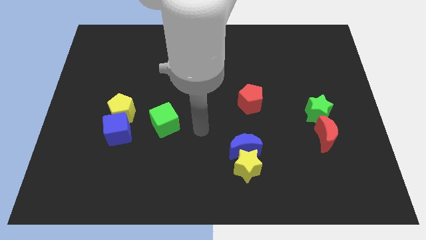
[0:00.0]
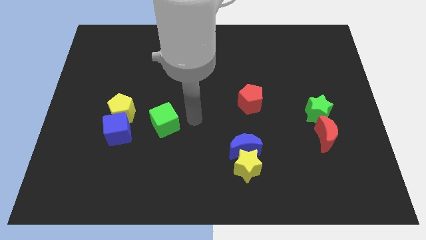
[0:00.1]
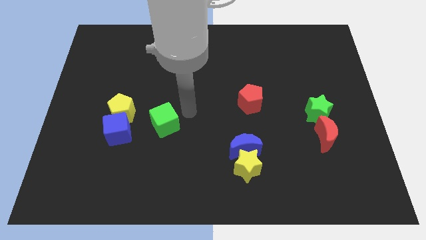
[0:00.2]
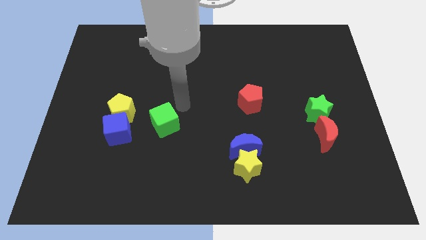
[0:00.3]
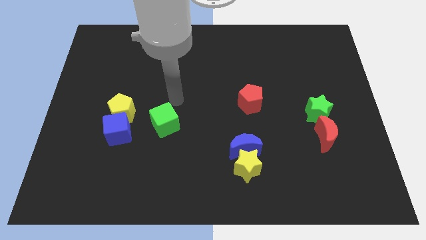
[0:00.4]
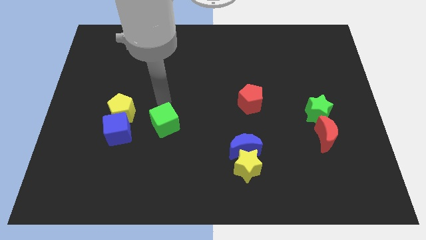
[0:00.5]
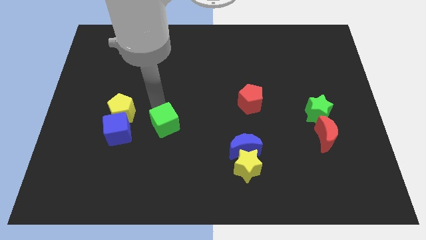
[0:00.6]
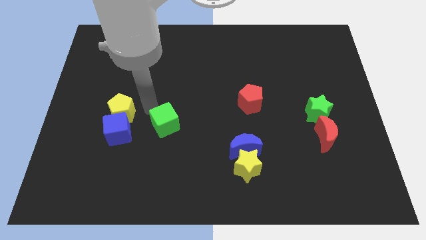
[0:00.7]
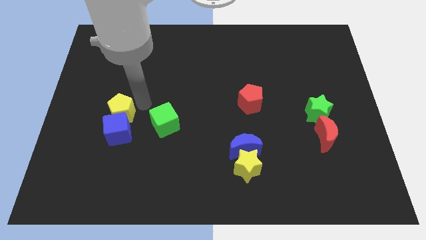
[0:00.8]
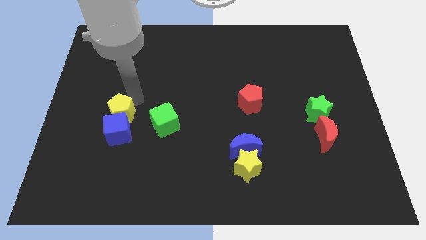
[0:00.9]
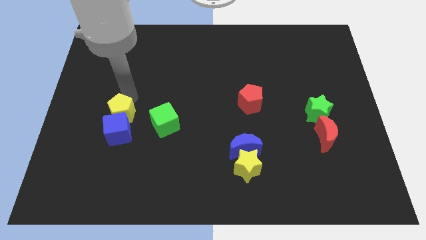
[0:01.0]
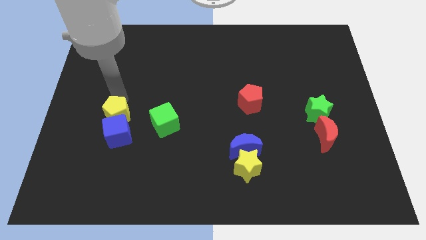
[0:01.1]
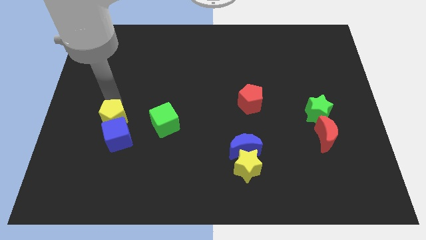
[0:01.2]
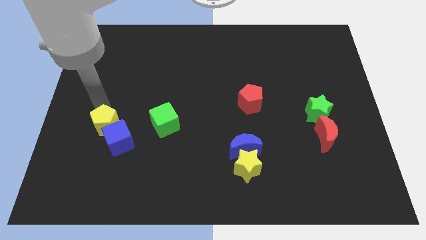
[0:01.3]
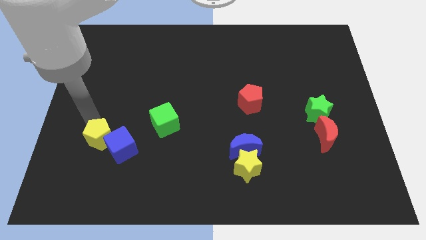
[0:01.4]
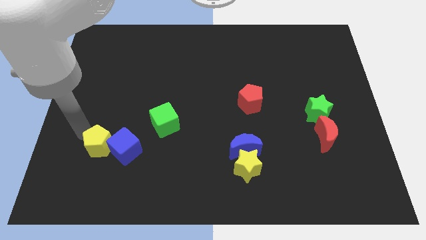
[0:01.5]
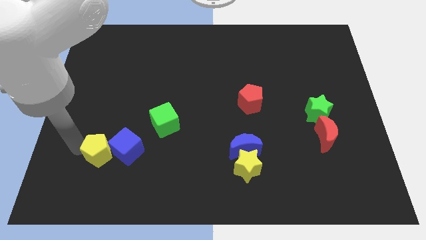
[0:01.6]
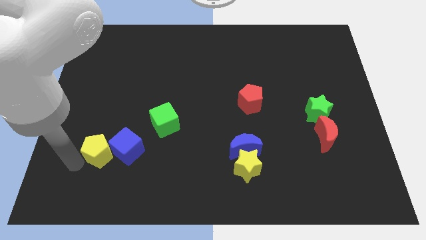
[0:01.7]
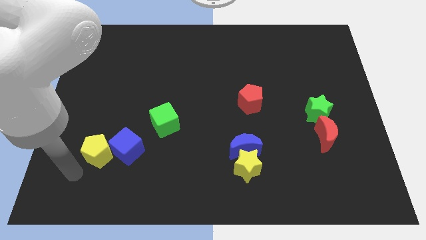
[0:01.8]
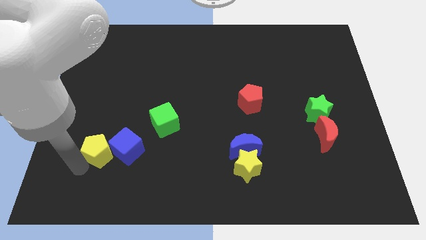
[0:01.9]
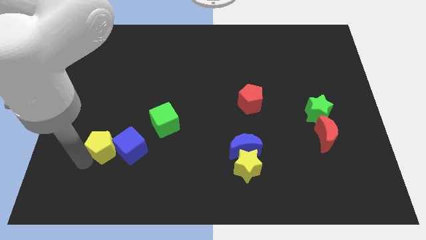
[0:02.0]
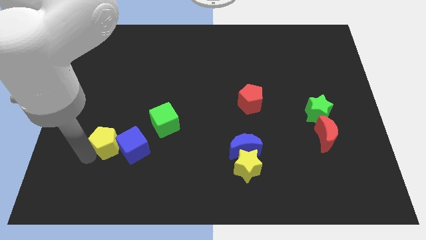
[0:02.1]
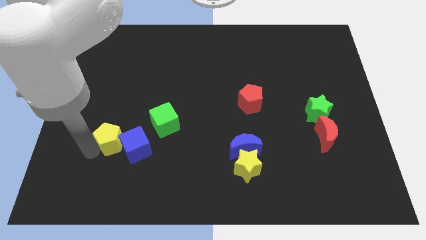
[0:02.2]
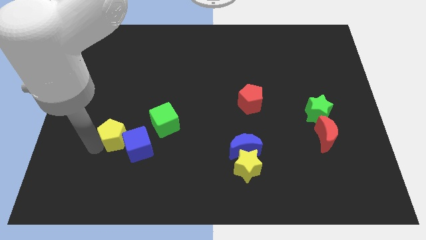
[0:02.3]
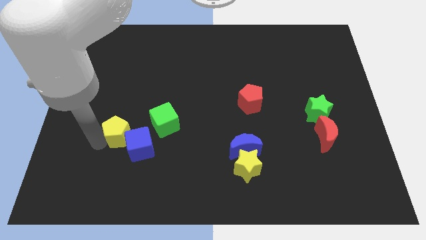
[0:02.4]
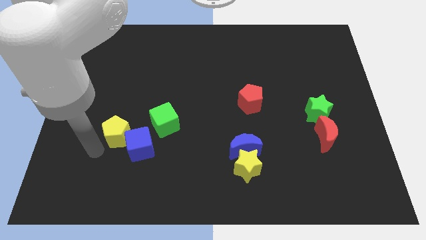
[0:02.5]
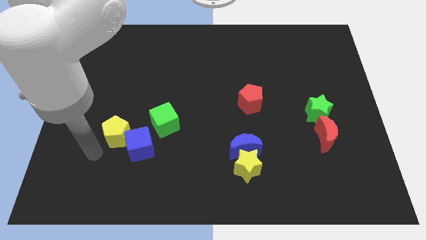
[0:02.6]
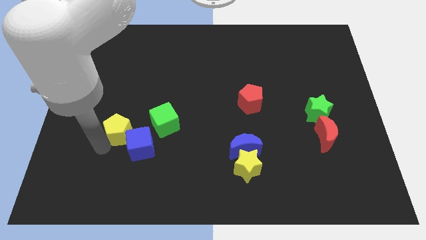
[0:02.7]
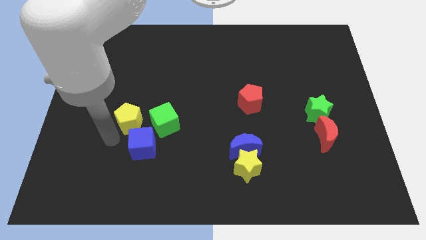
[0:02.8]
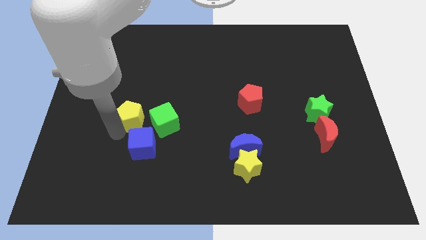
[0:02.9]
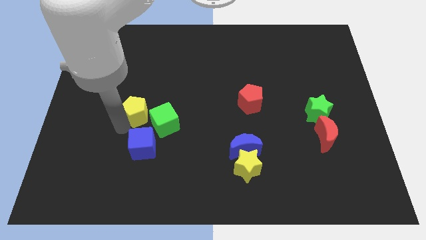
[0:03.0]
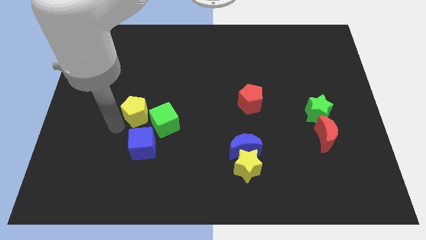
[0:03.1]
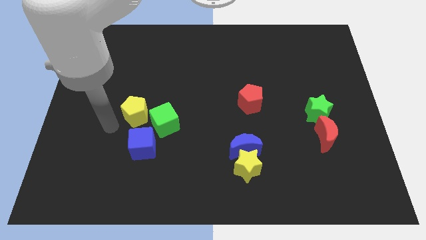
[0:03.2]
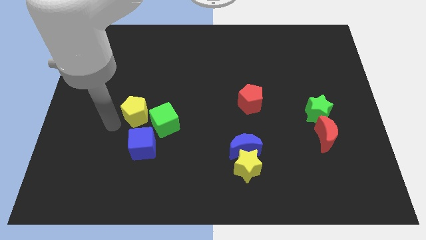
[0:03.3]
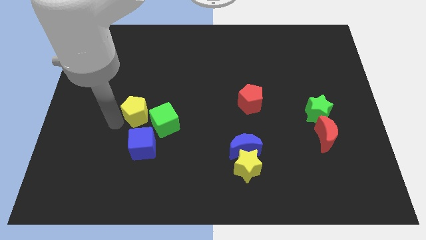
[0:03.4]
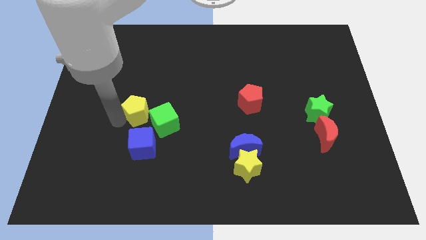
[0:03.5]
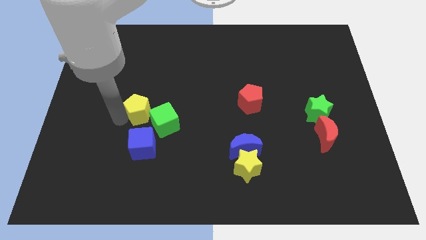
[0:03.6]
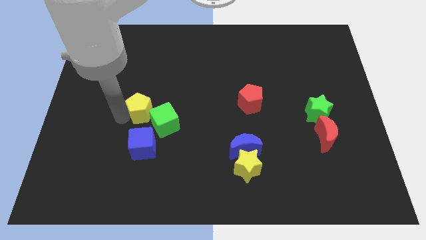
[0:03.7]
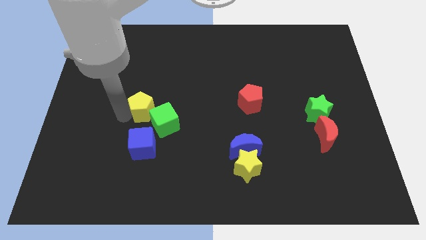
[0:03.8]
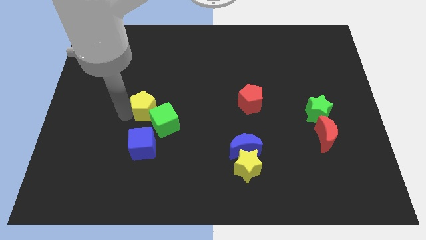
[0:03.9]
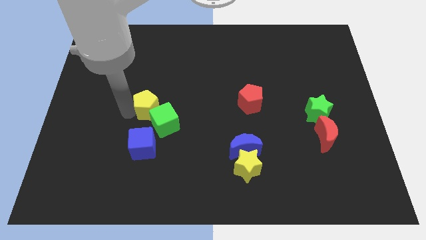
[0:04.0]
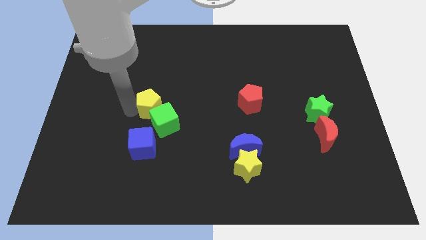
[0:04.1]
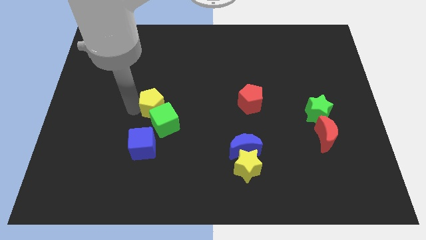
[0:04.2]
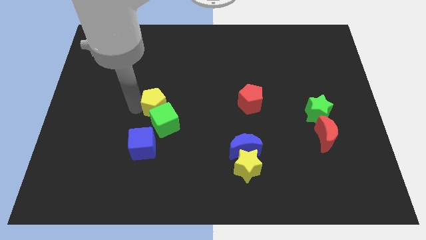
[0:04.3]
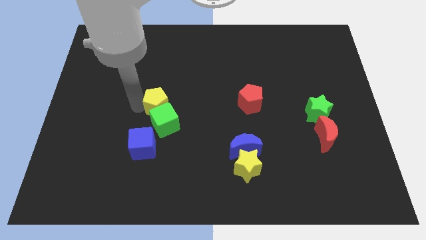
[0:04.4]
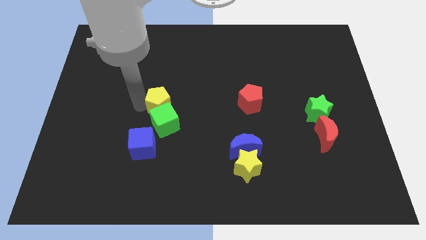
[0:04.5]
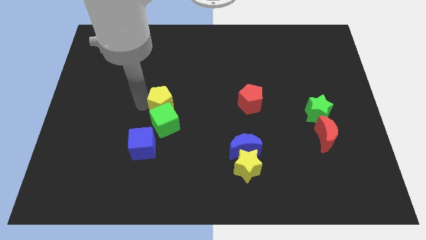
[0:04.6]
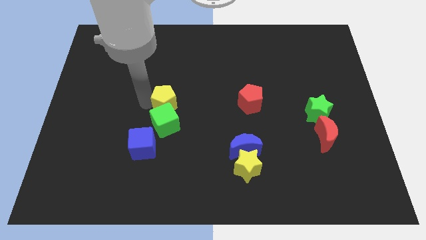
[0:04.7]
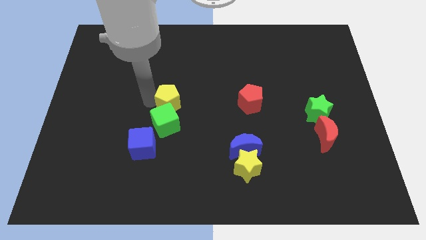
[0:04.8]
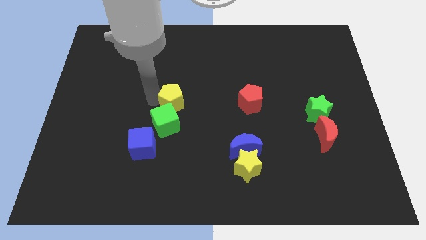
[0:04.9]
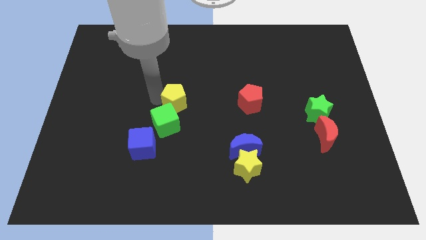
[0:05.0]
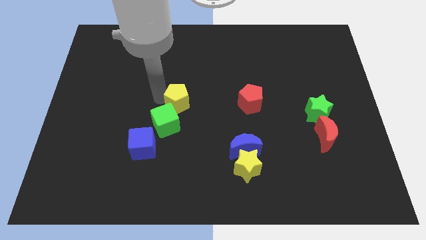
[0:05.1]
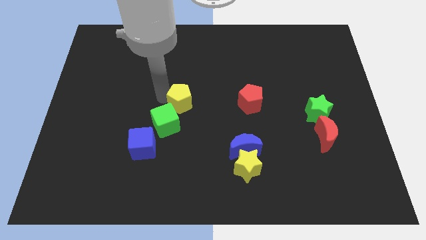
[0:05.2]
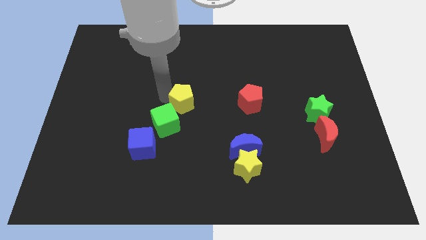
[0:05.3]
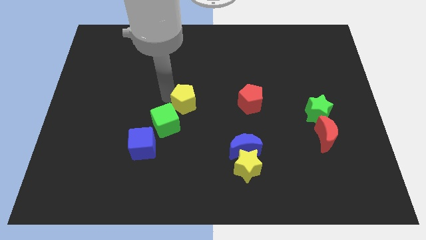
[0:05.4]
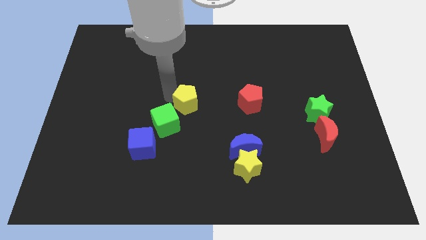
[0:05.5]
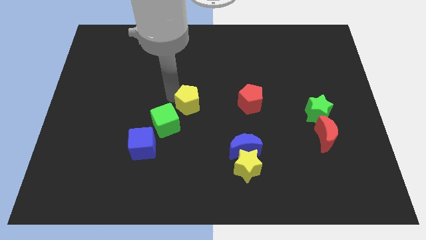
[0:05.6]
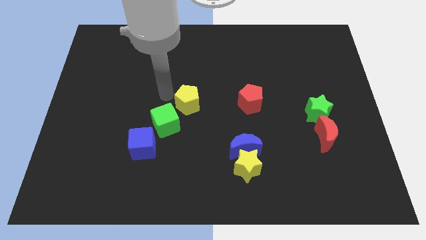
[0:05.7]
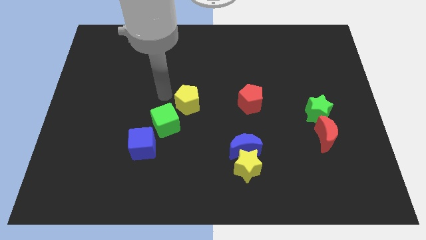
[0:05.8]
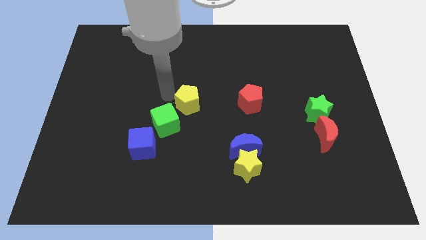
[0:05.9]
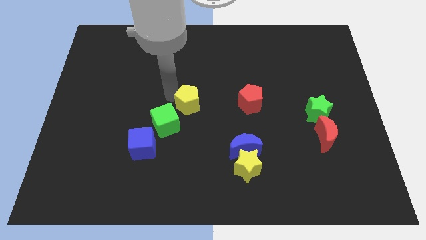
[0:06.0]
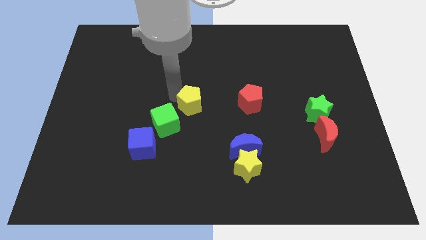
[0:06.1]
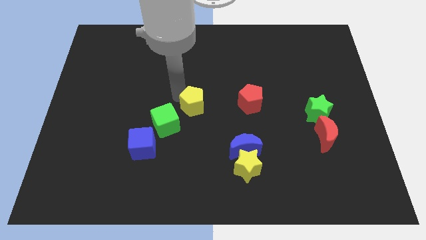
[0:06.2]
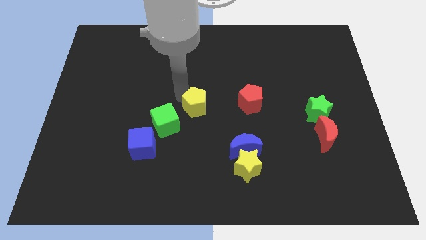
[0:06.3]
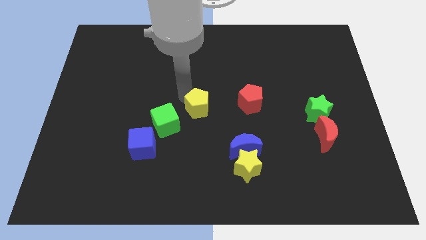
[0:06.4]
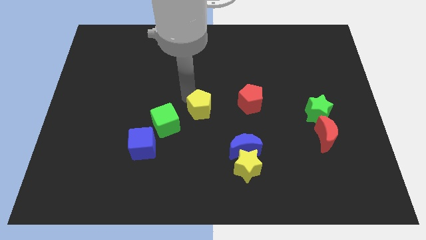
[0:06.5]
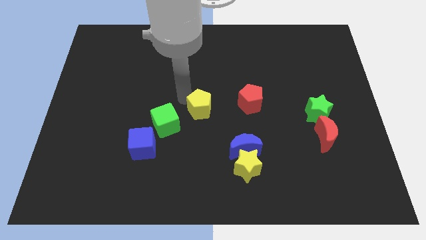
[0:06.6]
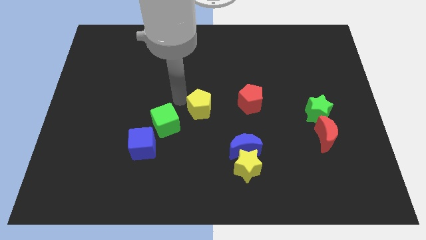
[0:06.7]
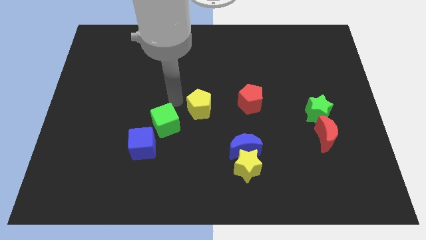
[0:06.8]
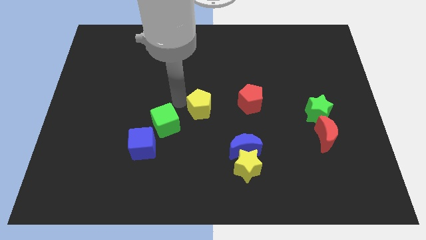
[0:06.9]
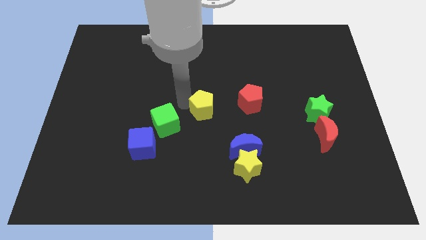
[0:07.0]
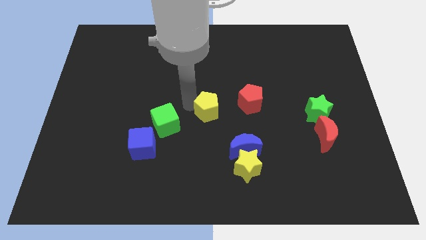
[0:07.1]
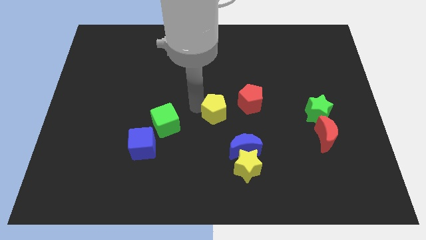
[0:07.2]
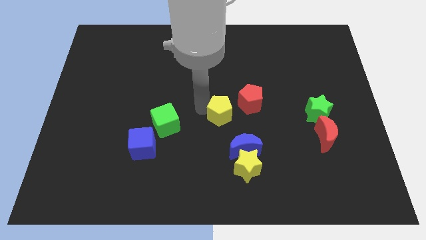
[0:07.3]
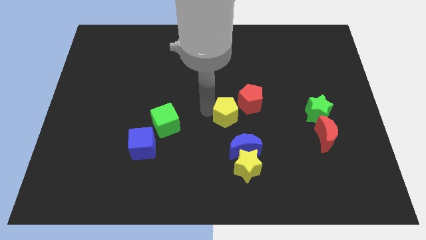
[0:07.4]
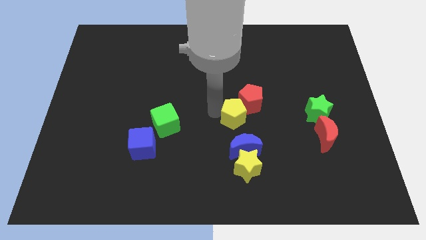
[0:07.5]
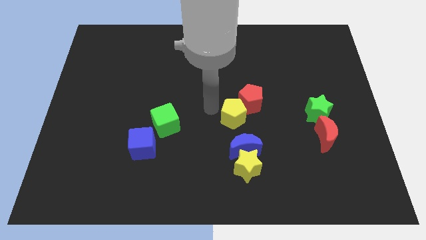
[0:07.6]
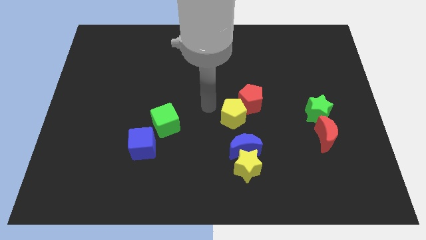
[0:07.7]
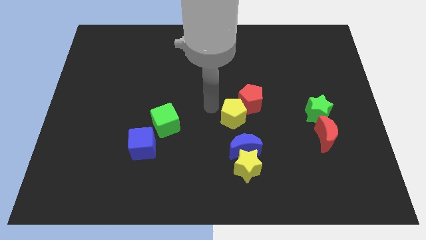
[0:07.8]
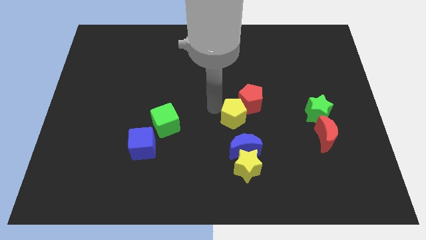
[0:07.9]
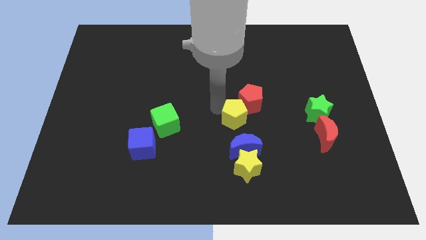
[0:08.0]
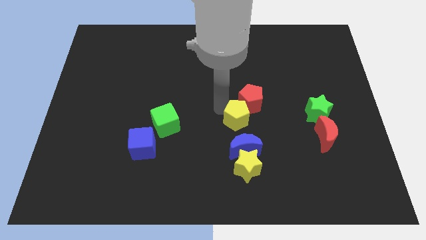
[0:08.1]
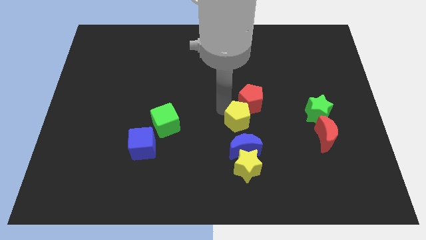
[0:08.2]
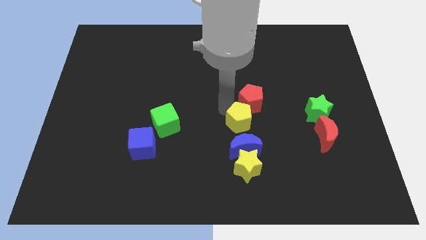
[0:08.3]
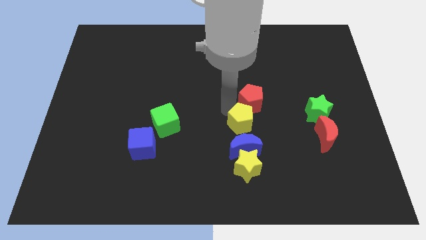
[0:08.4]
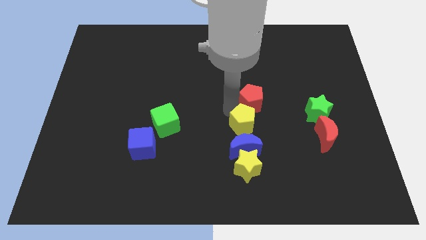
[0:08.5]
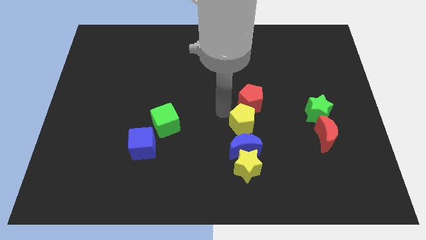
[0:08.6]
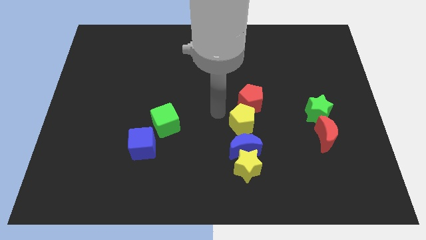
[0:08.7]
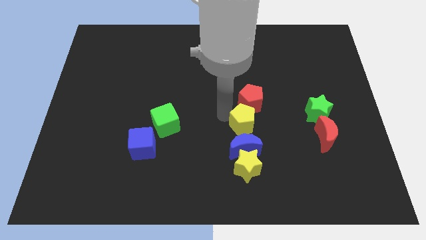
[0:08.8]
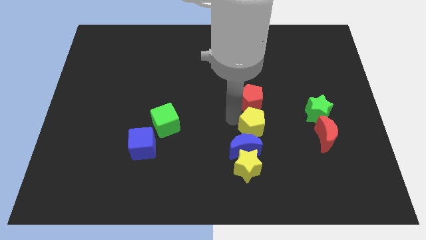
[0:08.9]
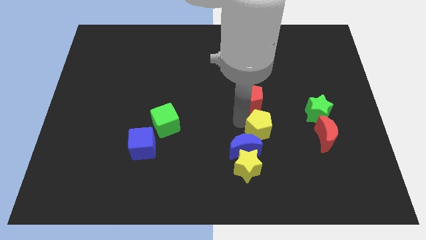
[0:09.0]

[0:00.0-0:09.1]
push the yellow pentagon left of the red moon
